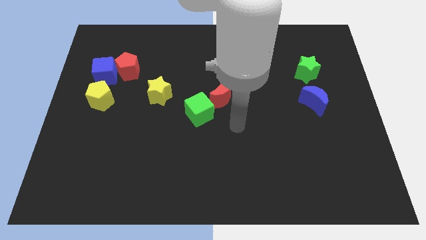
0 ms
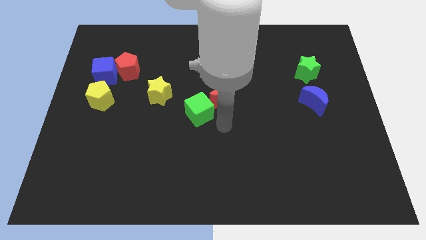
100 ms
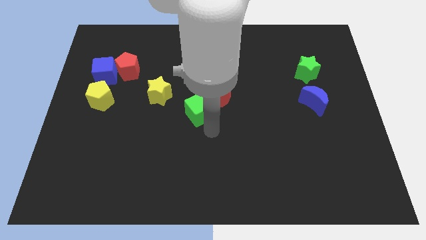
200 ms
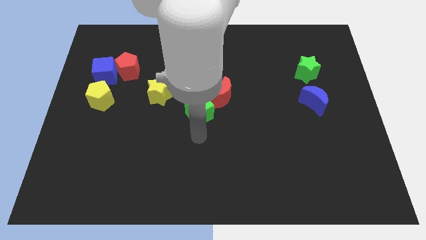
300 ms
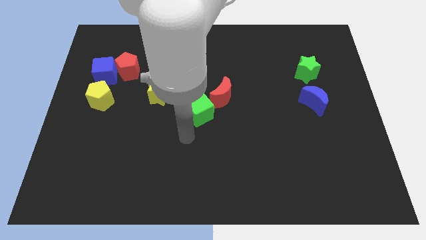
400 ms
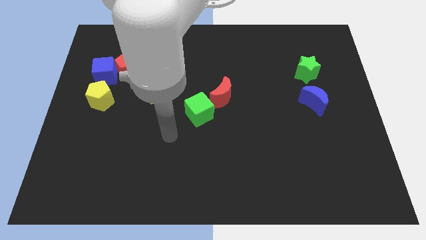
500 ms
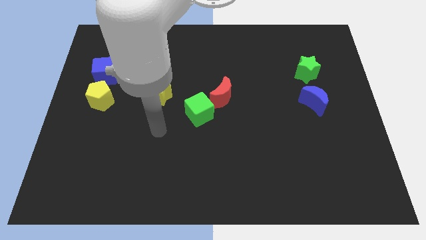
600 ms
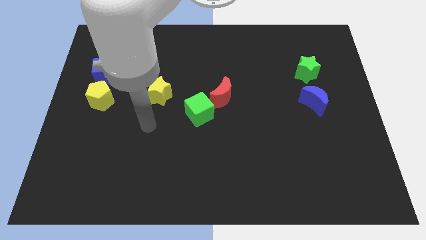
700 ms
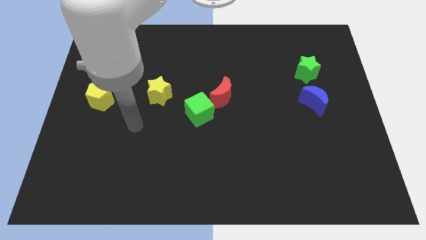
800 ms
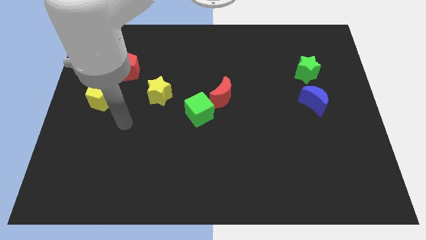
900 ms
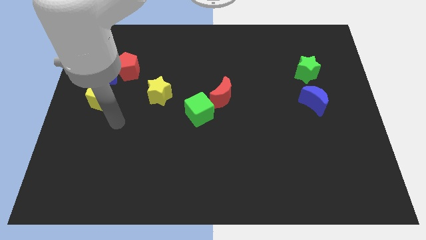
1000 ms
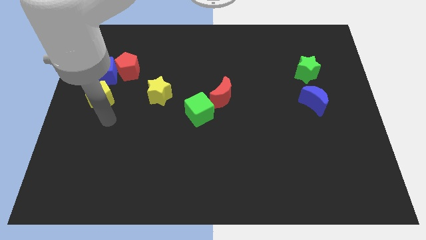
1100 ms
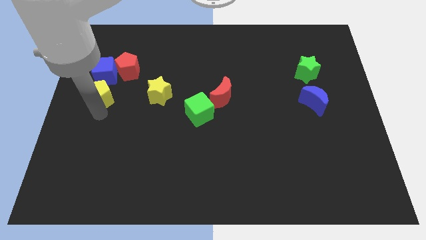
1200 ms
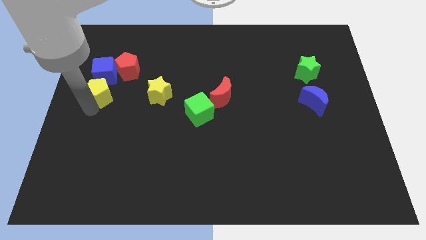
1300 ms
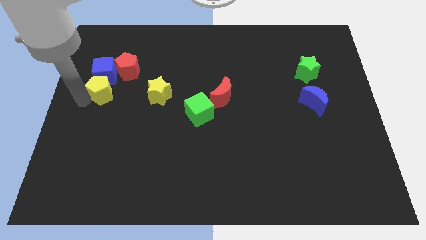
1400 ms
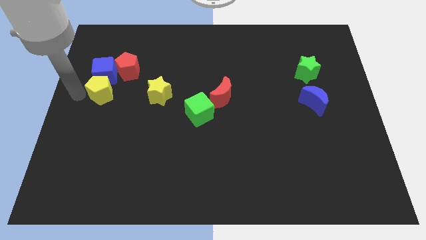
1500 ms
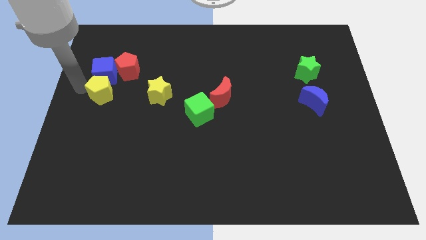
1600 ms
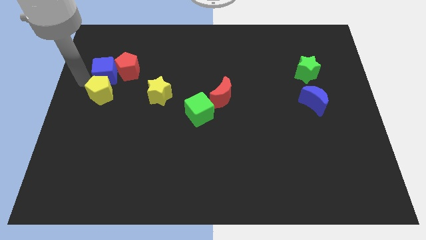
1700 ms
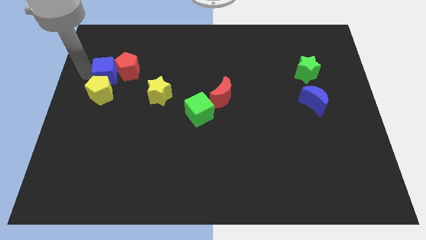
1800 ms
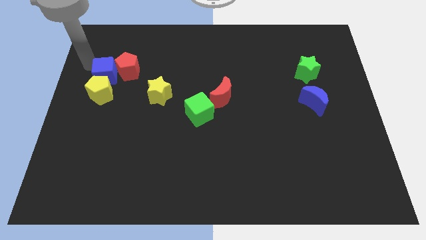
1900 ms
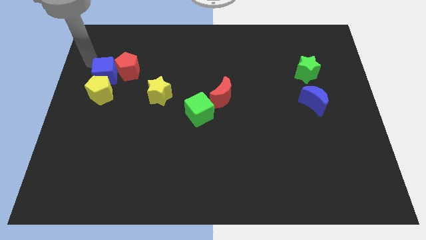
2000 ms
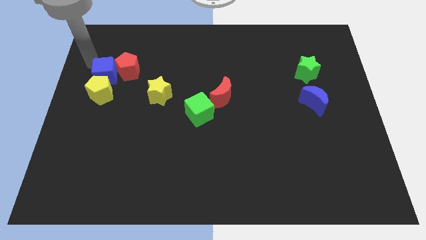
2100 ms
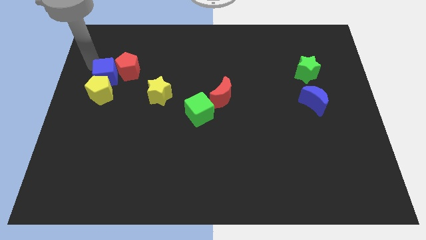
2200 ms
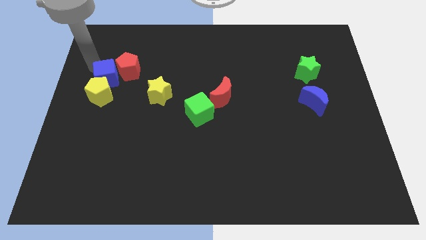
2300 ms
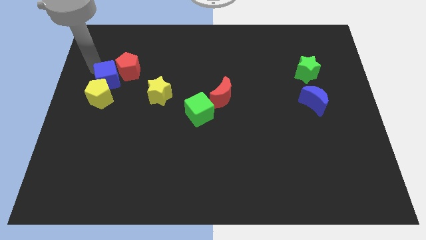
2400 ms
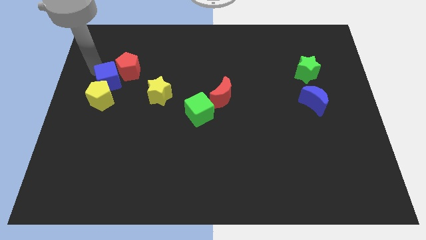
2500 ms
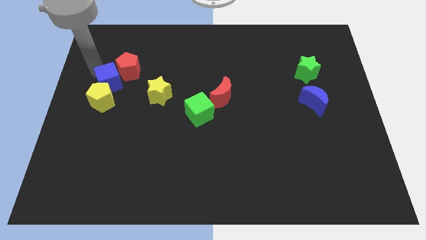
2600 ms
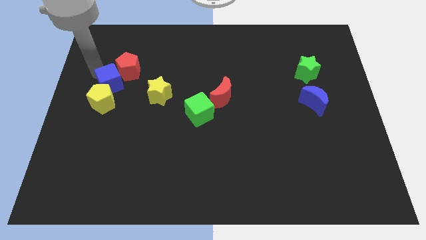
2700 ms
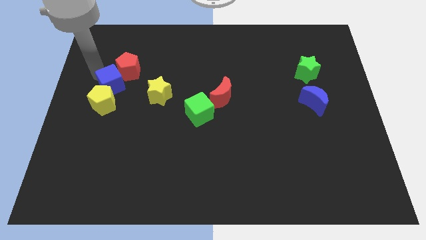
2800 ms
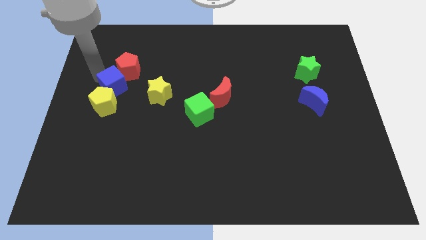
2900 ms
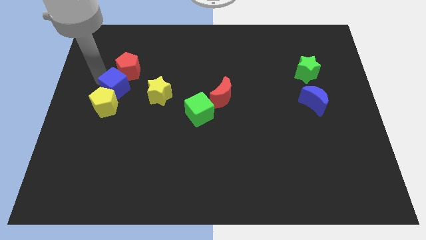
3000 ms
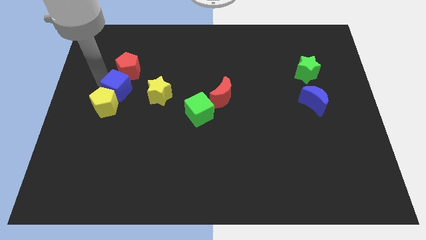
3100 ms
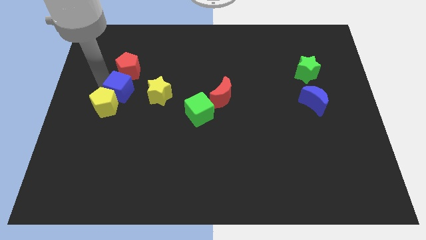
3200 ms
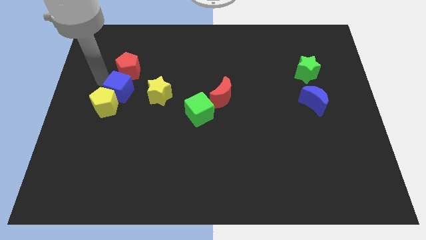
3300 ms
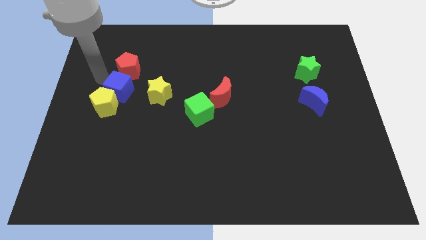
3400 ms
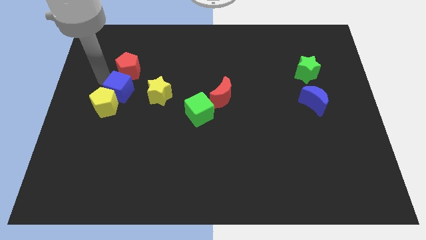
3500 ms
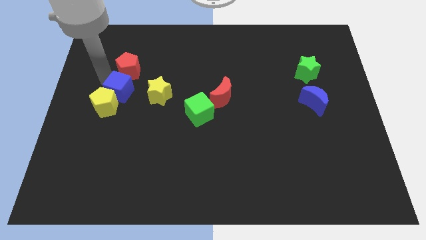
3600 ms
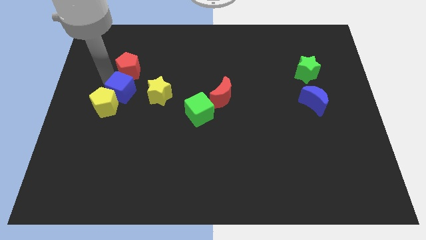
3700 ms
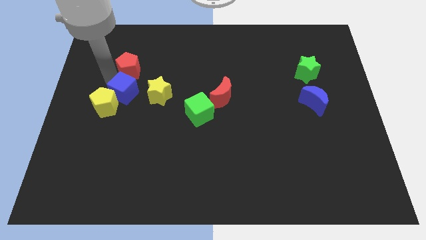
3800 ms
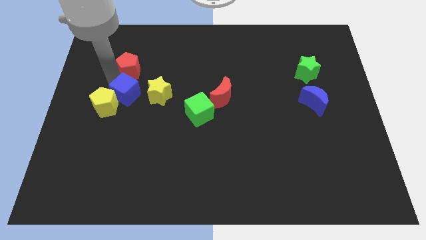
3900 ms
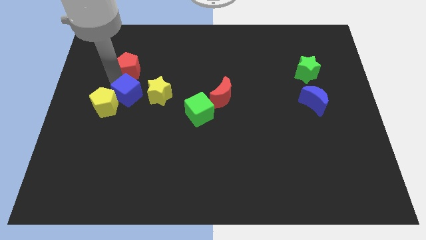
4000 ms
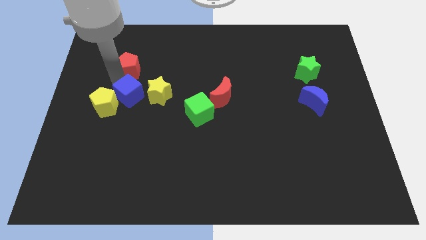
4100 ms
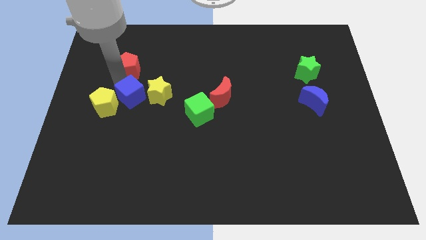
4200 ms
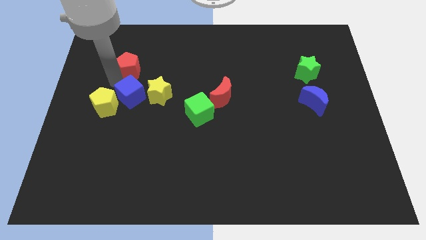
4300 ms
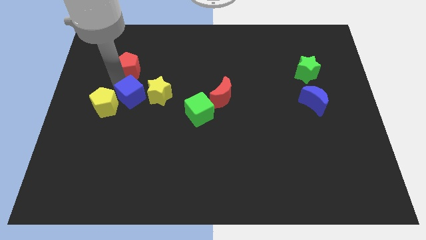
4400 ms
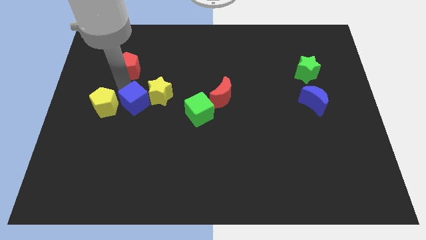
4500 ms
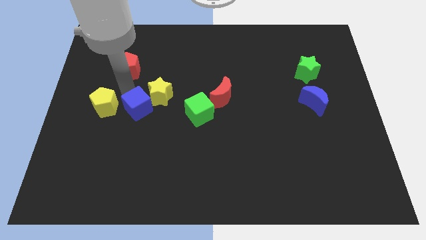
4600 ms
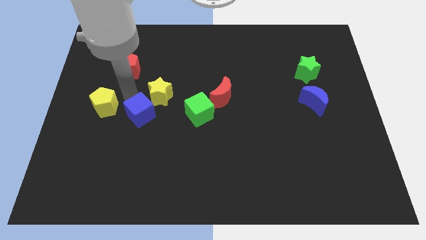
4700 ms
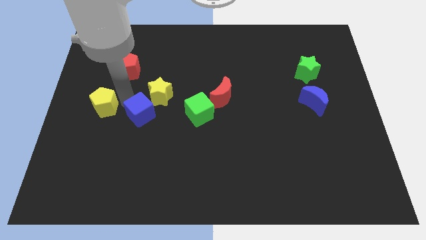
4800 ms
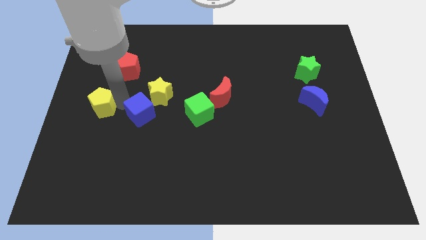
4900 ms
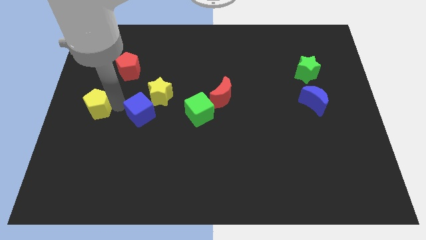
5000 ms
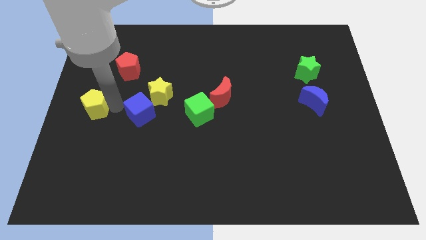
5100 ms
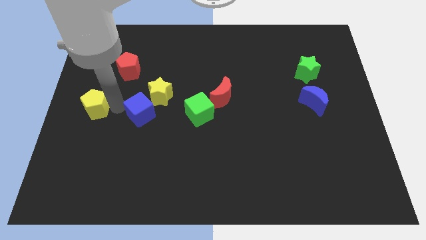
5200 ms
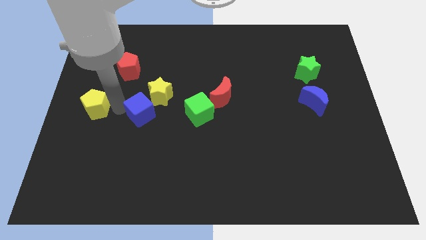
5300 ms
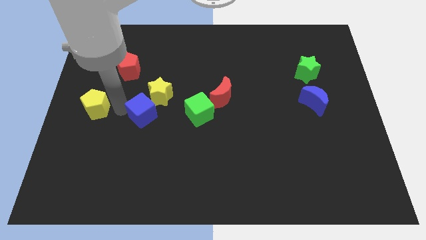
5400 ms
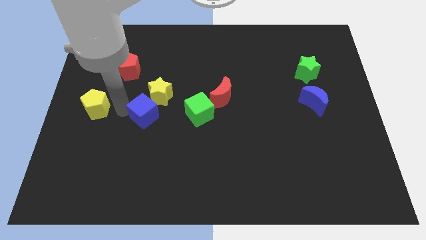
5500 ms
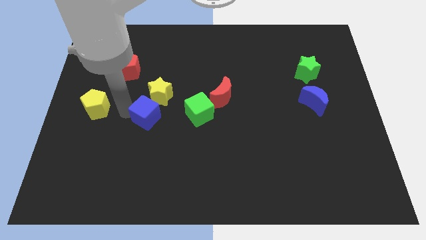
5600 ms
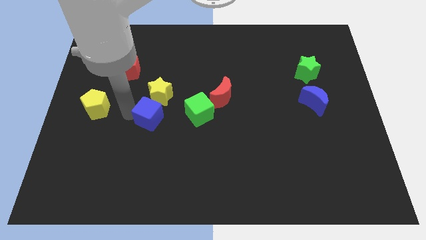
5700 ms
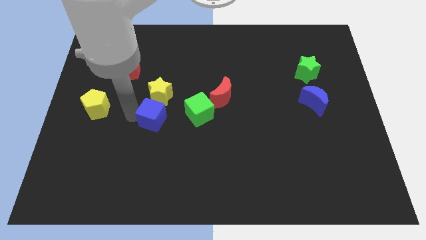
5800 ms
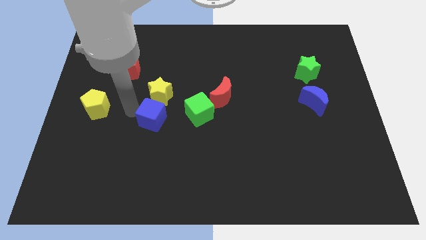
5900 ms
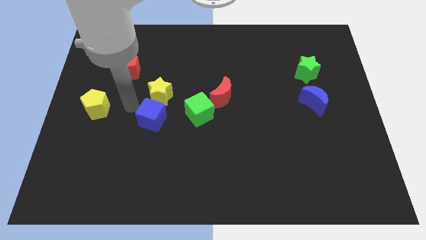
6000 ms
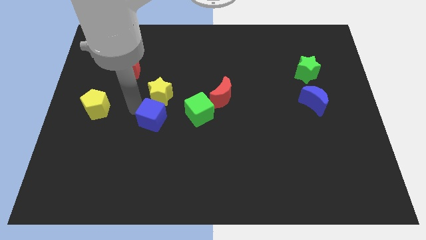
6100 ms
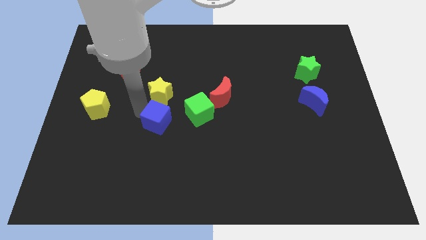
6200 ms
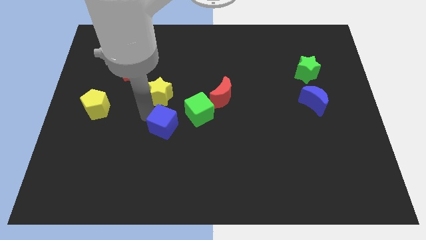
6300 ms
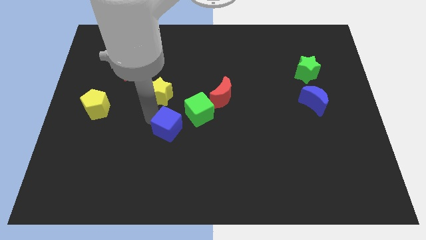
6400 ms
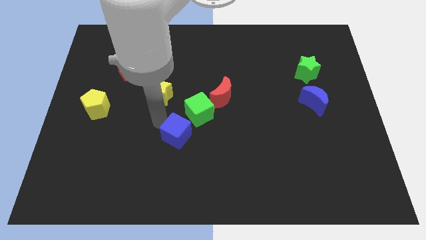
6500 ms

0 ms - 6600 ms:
slide the blue cube to the bottom of the green cube
